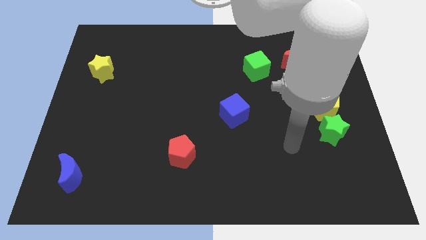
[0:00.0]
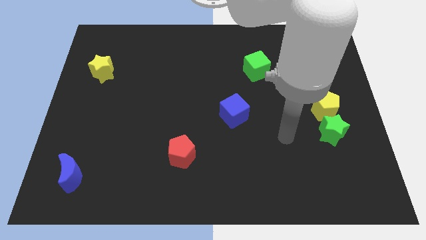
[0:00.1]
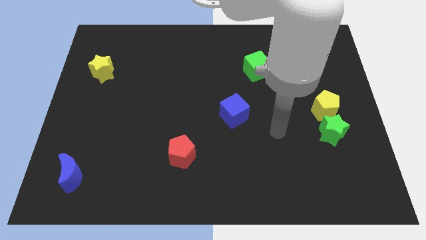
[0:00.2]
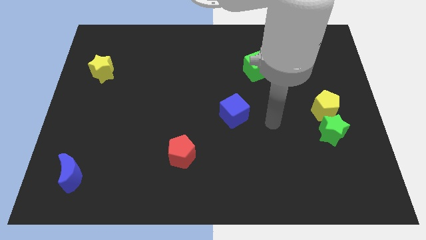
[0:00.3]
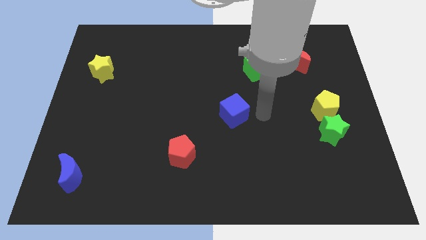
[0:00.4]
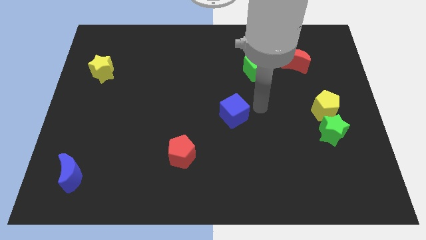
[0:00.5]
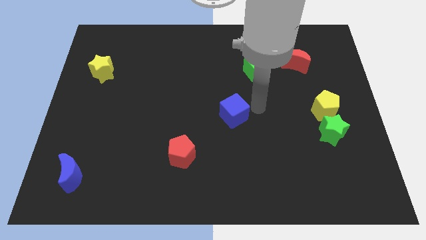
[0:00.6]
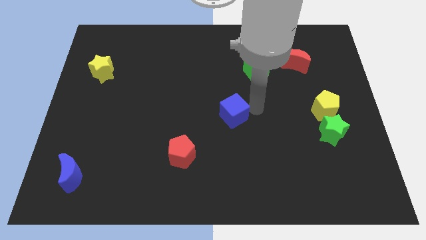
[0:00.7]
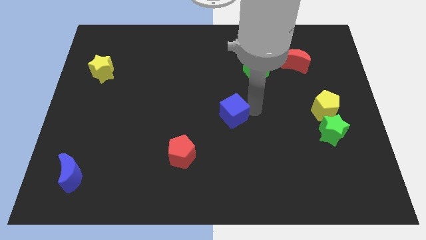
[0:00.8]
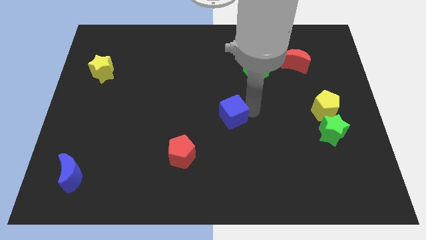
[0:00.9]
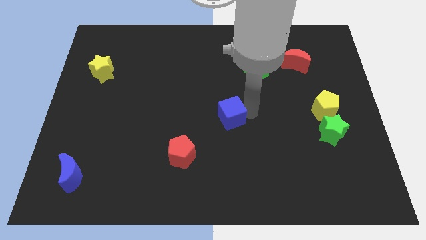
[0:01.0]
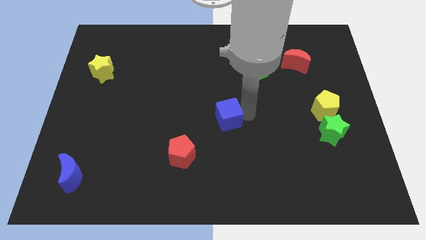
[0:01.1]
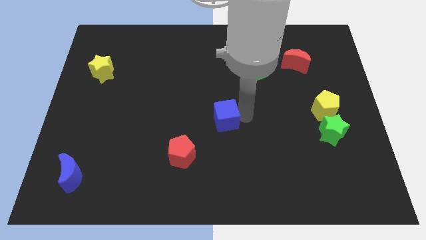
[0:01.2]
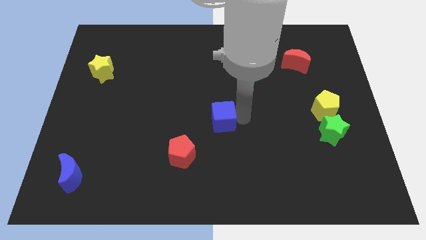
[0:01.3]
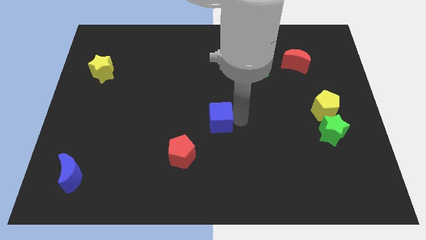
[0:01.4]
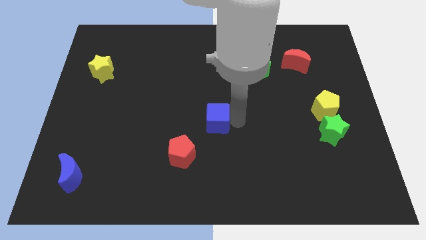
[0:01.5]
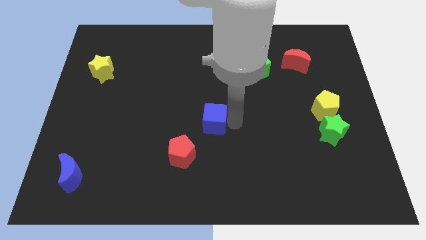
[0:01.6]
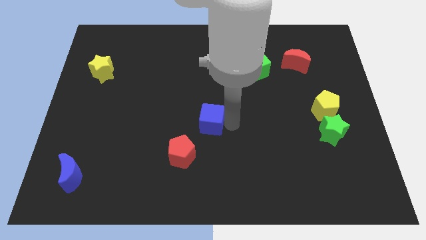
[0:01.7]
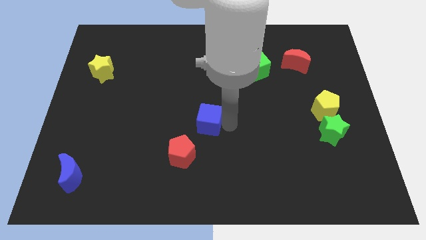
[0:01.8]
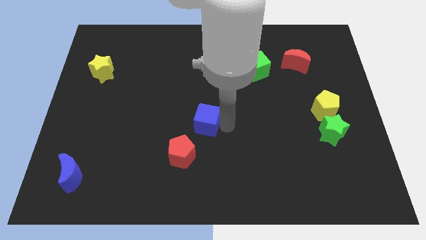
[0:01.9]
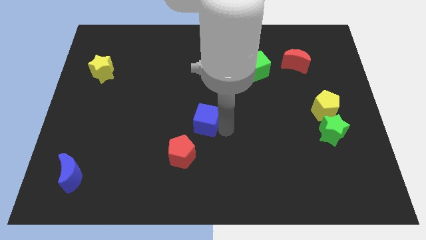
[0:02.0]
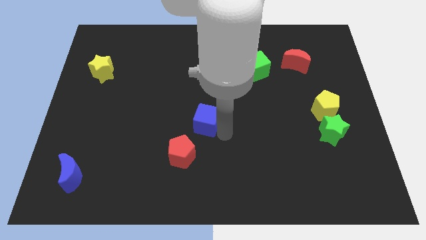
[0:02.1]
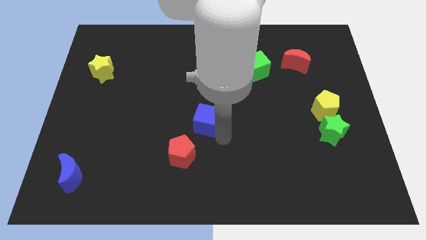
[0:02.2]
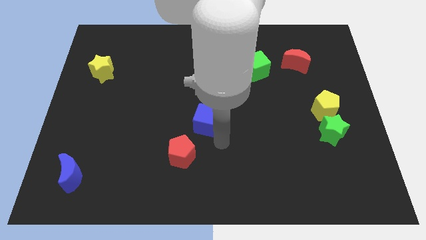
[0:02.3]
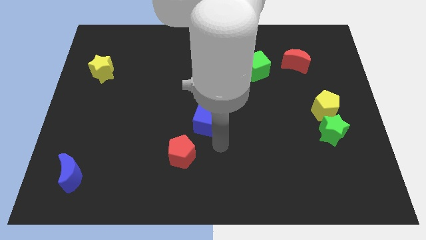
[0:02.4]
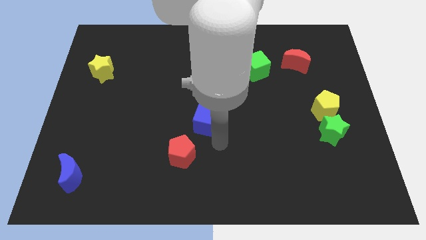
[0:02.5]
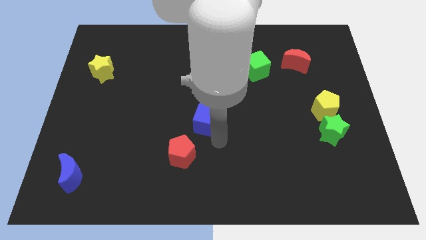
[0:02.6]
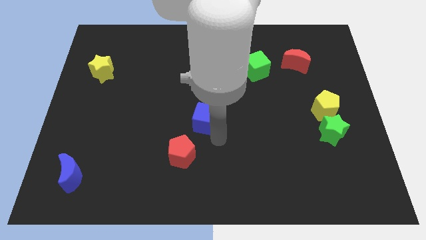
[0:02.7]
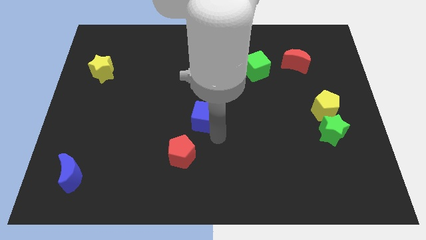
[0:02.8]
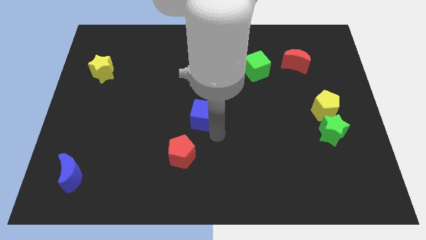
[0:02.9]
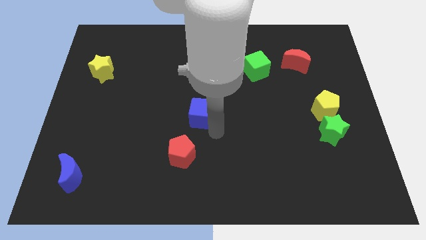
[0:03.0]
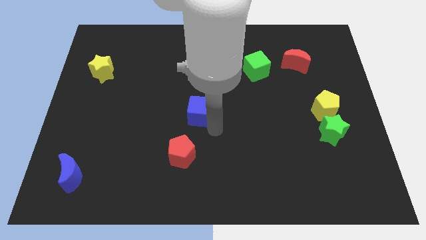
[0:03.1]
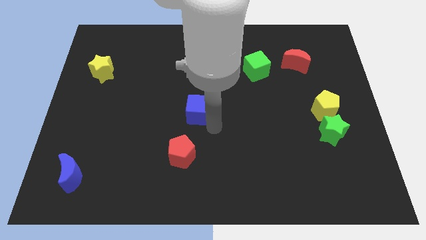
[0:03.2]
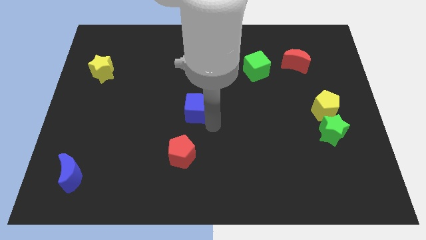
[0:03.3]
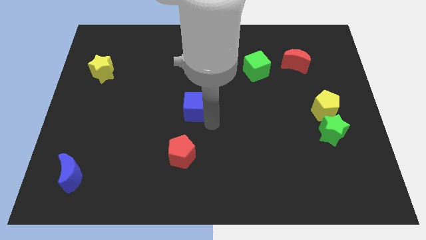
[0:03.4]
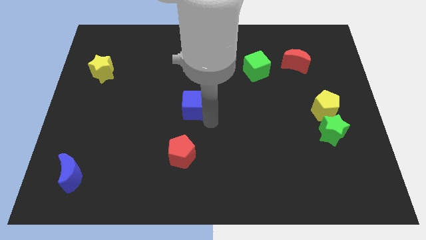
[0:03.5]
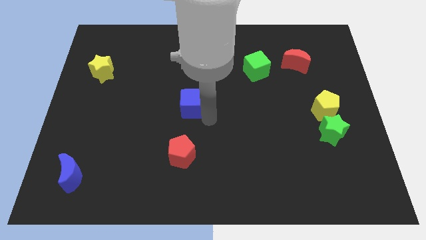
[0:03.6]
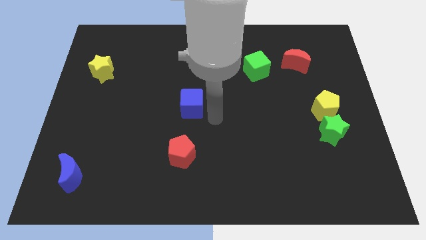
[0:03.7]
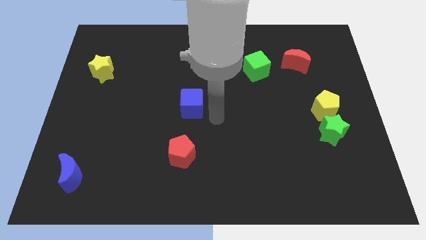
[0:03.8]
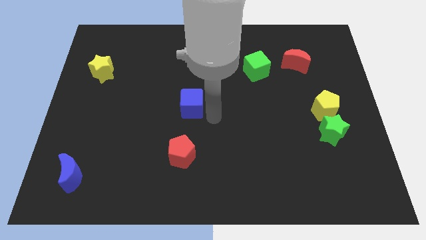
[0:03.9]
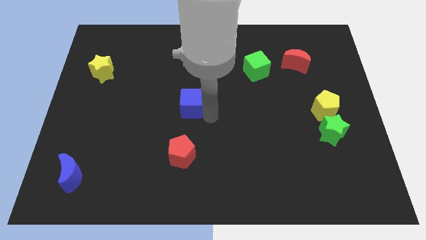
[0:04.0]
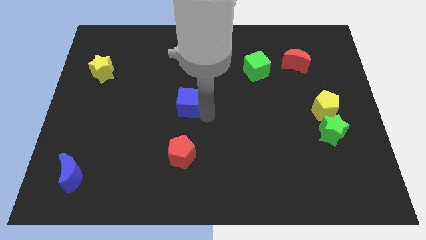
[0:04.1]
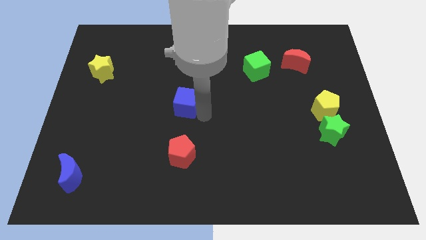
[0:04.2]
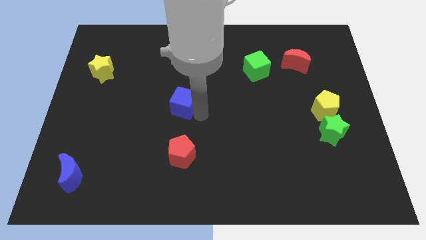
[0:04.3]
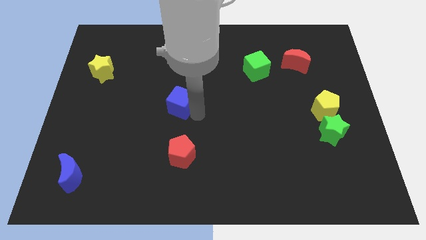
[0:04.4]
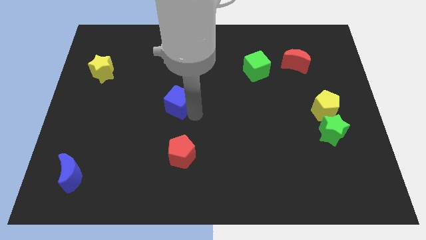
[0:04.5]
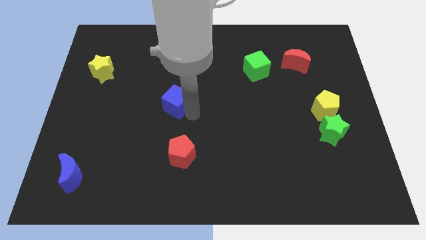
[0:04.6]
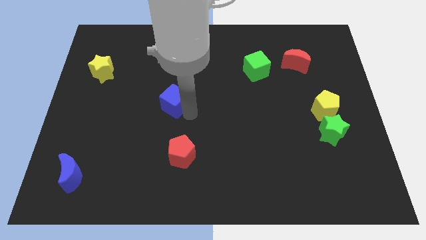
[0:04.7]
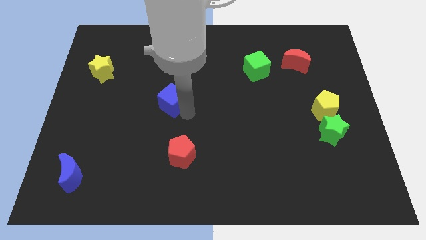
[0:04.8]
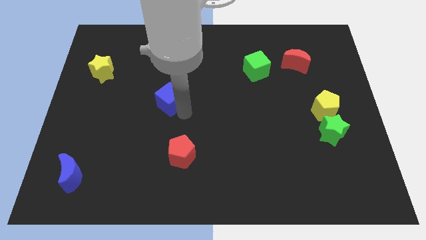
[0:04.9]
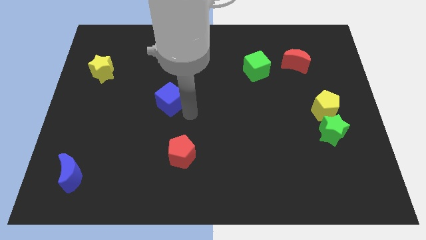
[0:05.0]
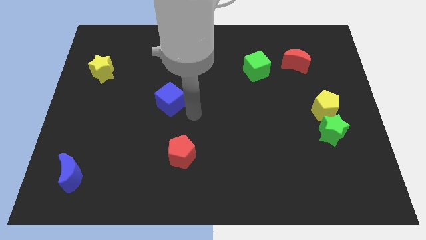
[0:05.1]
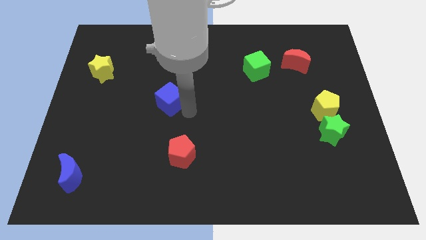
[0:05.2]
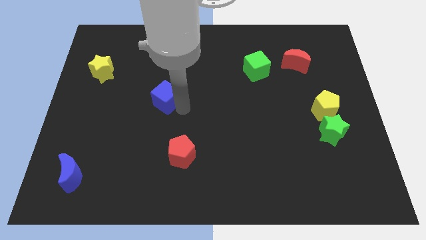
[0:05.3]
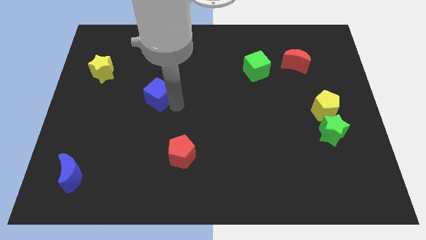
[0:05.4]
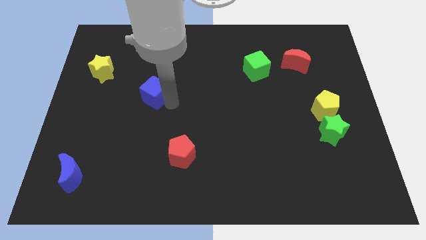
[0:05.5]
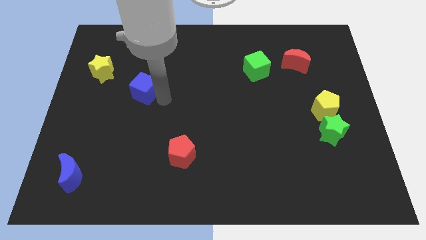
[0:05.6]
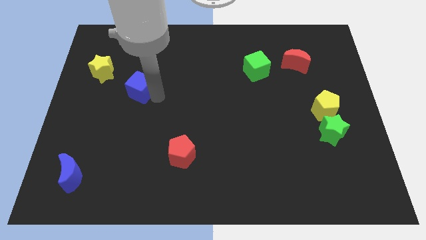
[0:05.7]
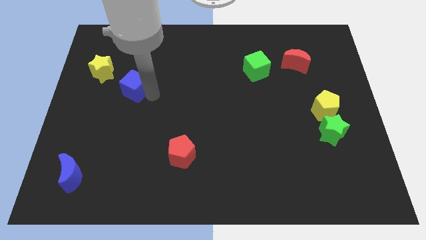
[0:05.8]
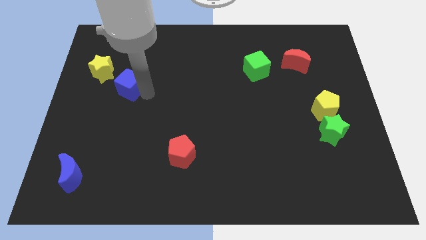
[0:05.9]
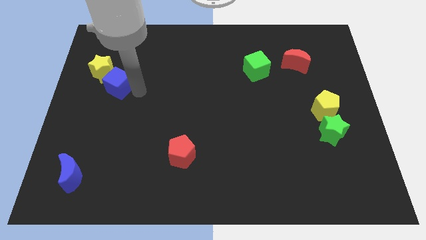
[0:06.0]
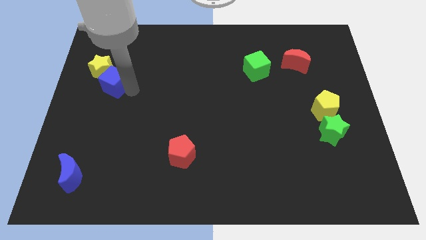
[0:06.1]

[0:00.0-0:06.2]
slide the blue cube towards the yellow star

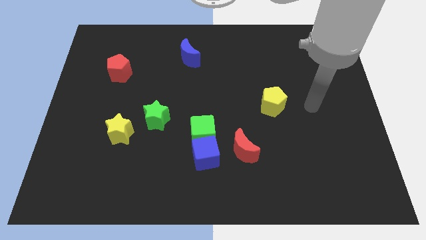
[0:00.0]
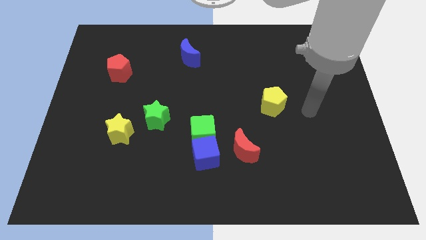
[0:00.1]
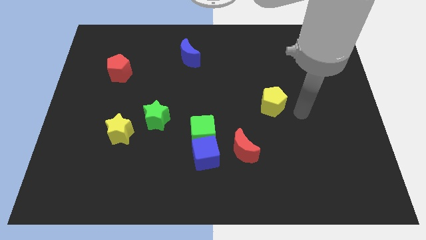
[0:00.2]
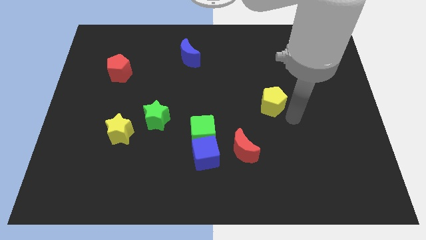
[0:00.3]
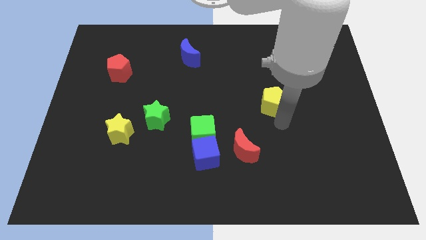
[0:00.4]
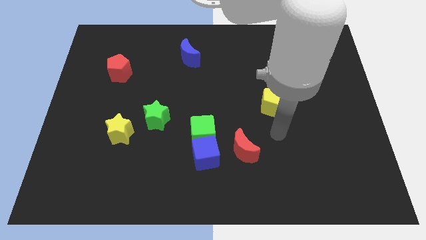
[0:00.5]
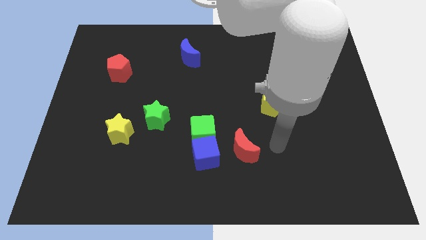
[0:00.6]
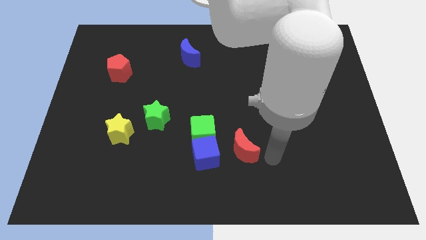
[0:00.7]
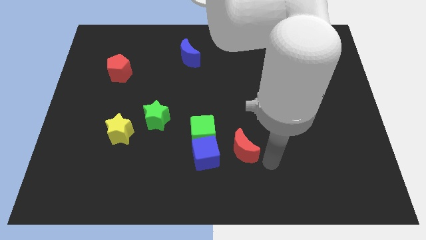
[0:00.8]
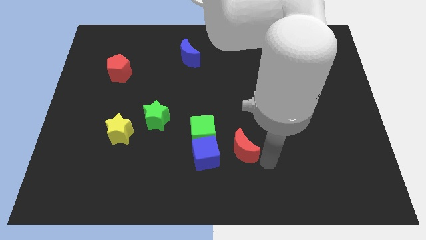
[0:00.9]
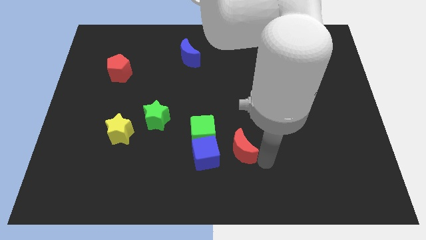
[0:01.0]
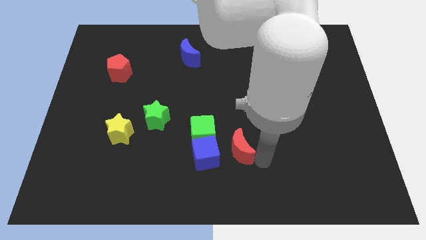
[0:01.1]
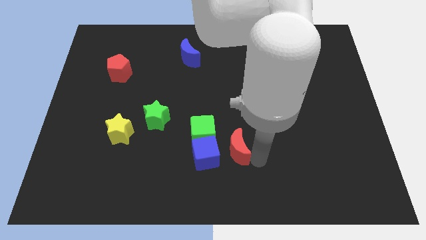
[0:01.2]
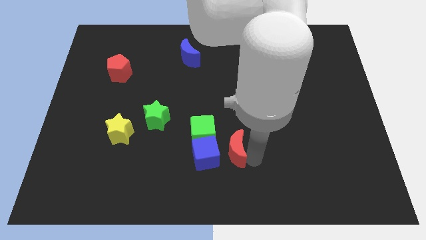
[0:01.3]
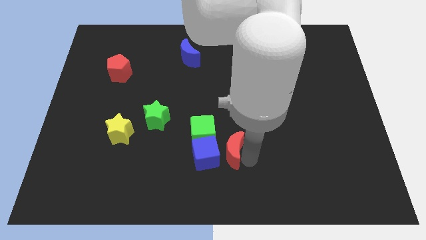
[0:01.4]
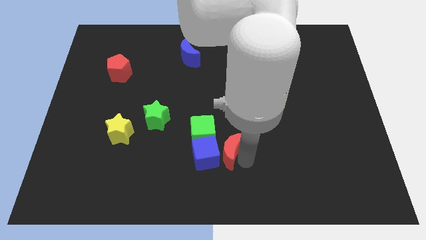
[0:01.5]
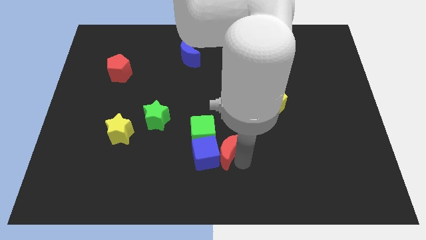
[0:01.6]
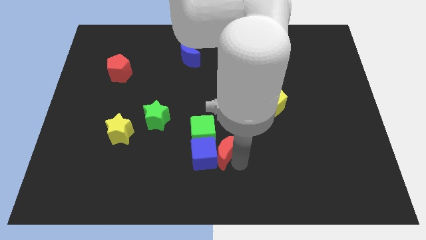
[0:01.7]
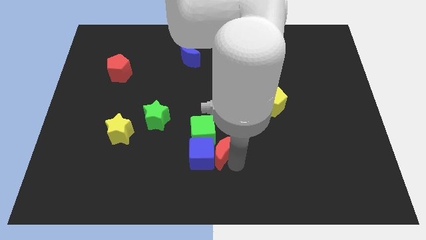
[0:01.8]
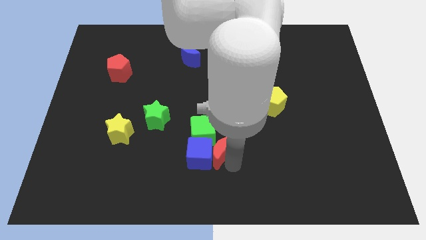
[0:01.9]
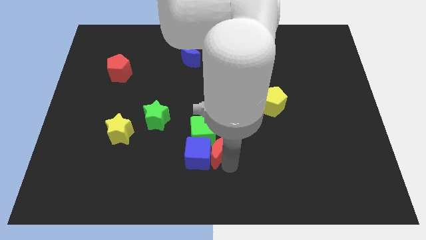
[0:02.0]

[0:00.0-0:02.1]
push the red moon close to the green cube
